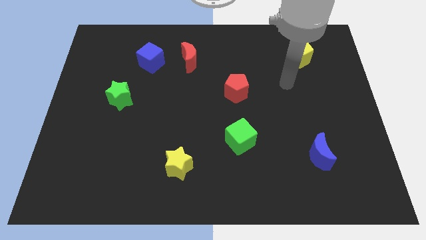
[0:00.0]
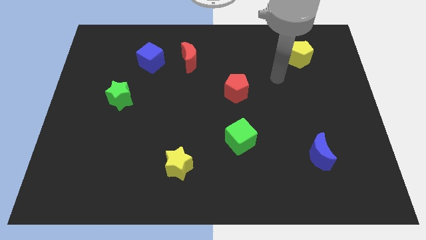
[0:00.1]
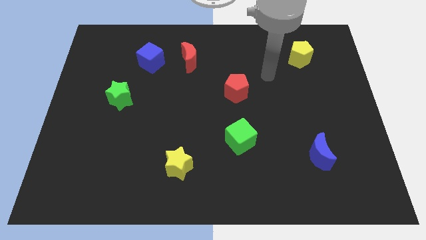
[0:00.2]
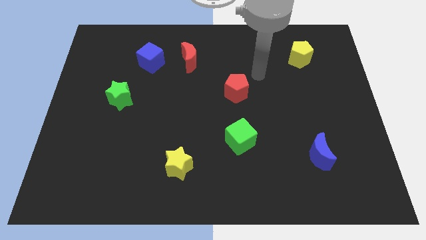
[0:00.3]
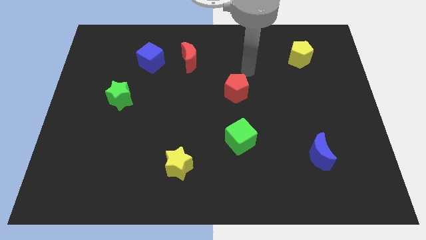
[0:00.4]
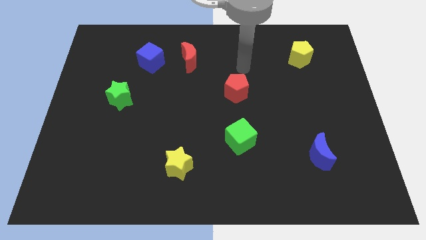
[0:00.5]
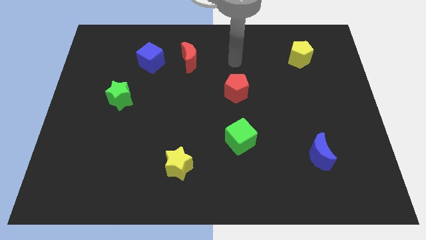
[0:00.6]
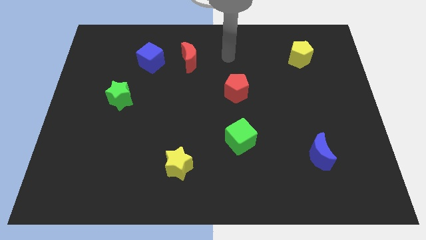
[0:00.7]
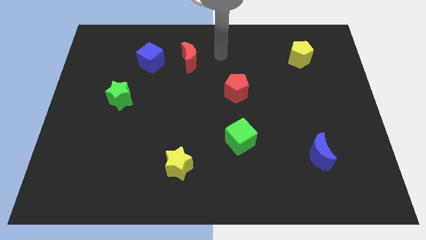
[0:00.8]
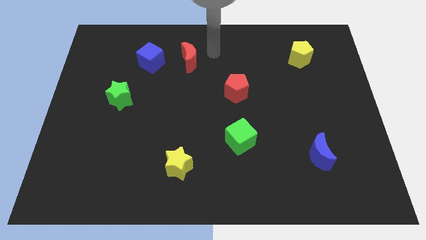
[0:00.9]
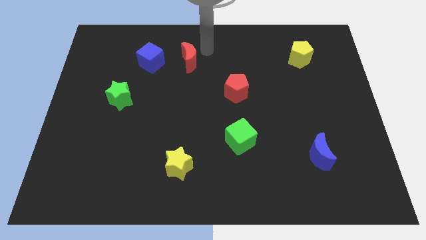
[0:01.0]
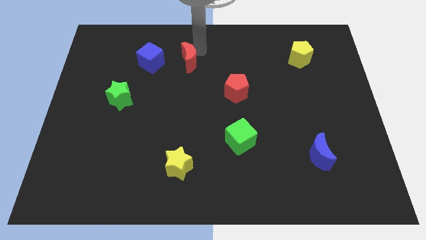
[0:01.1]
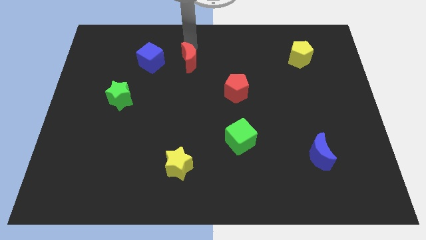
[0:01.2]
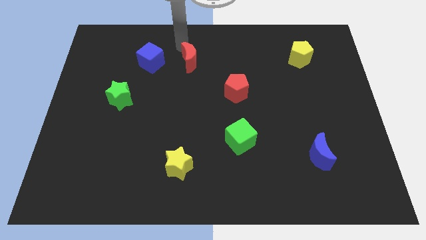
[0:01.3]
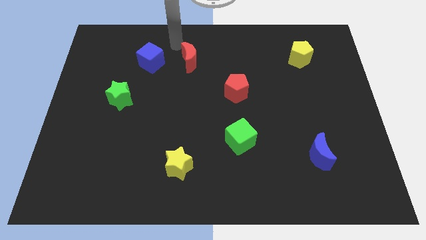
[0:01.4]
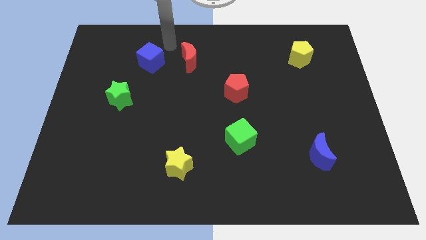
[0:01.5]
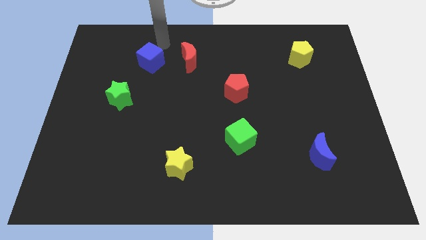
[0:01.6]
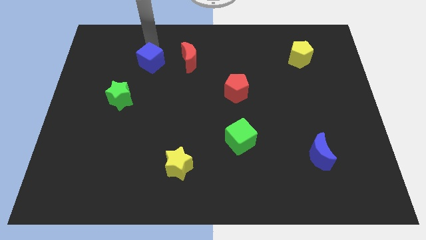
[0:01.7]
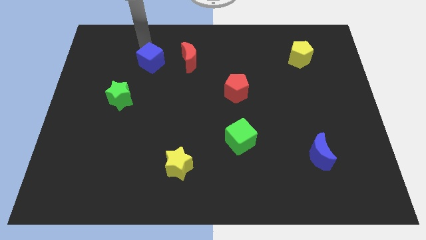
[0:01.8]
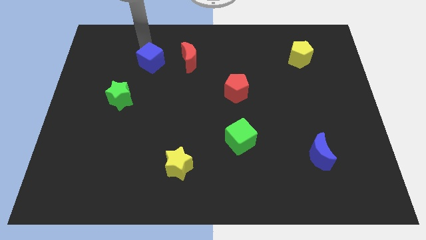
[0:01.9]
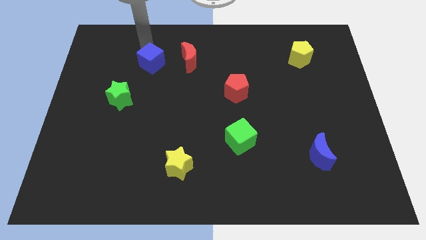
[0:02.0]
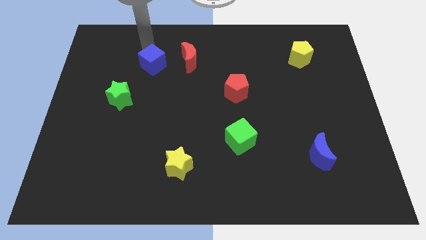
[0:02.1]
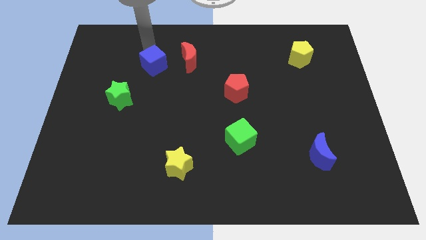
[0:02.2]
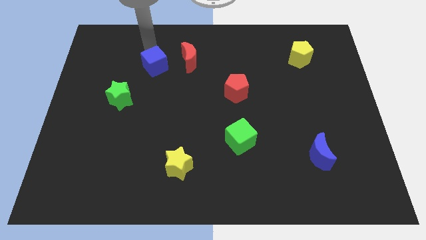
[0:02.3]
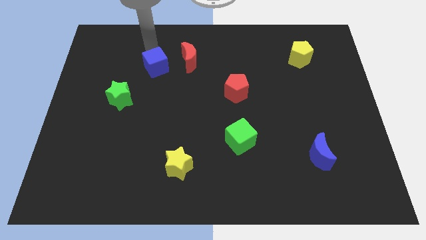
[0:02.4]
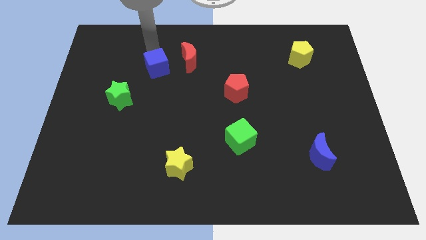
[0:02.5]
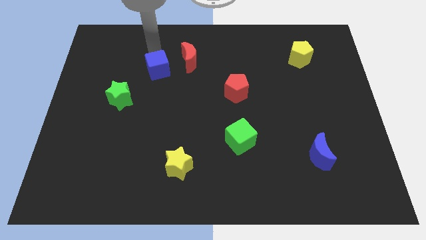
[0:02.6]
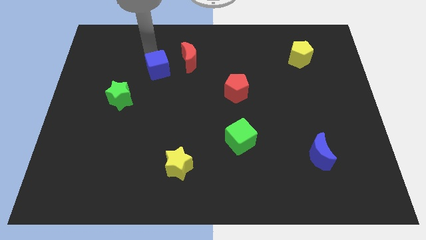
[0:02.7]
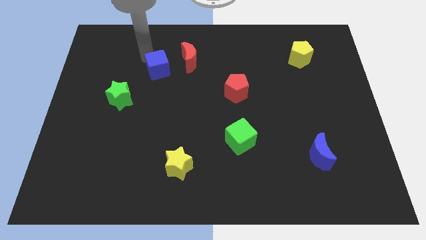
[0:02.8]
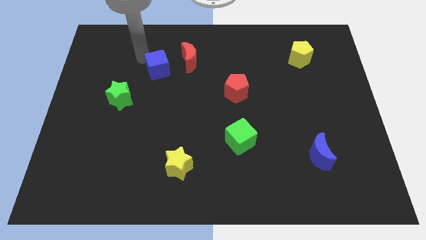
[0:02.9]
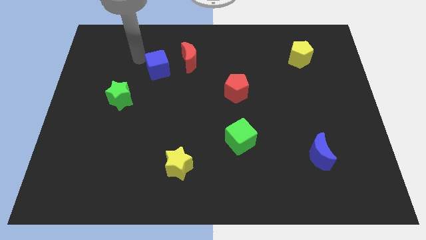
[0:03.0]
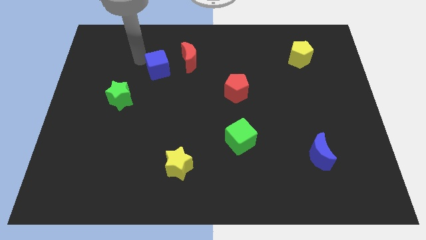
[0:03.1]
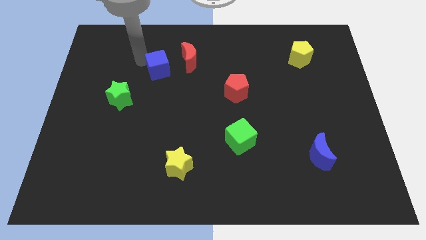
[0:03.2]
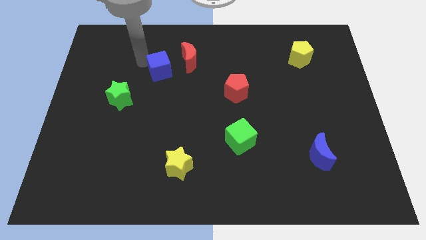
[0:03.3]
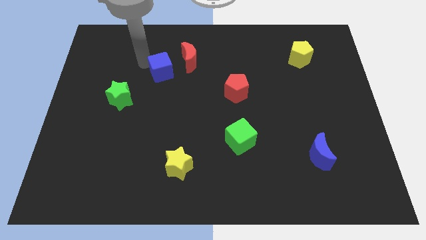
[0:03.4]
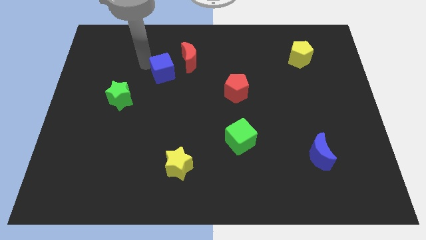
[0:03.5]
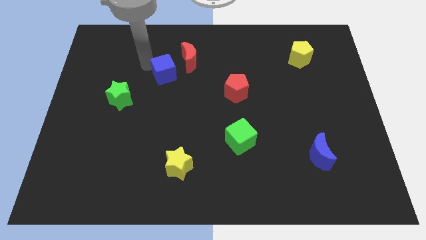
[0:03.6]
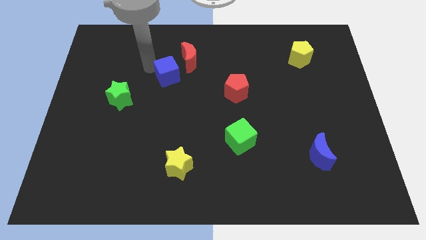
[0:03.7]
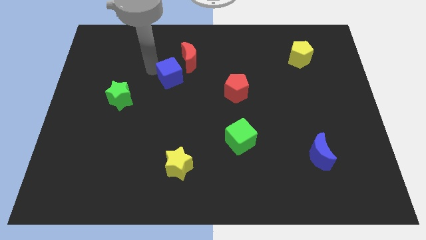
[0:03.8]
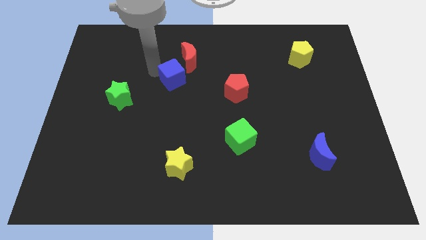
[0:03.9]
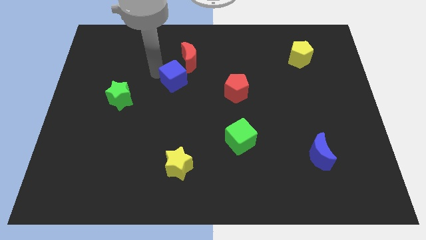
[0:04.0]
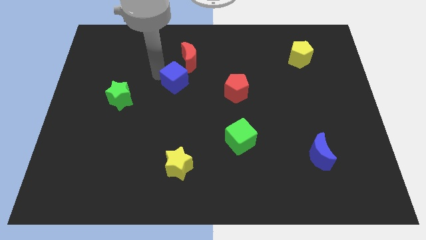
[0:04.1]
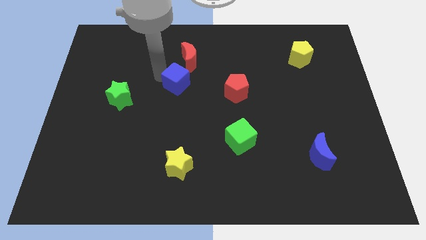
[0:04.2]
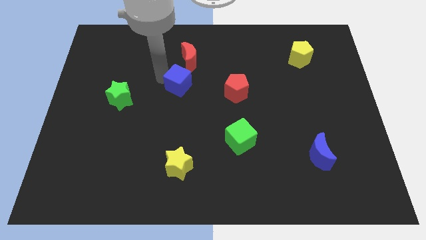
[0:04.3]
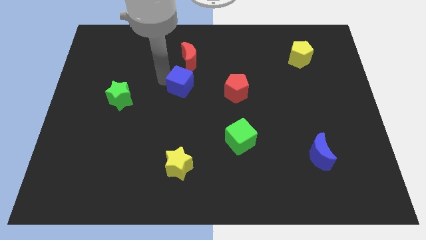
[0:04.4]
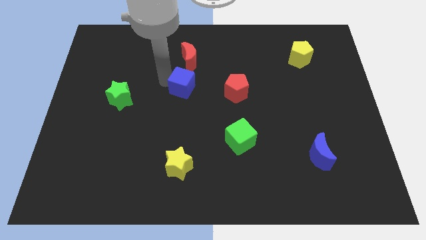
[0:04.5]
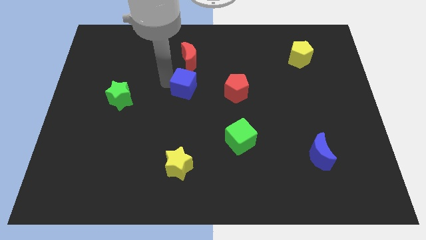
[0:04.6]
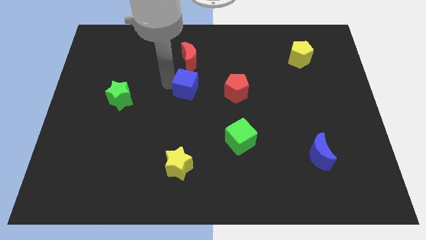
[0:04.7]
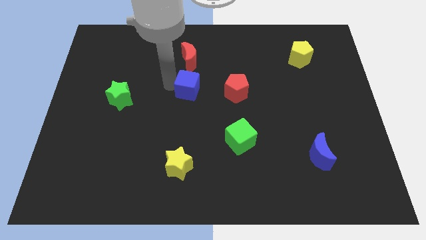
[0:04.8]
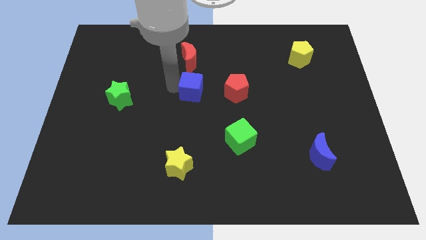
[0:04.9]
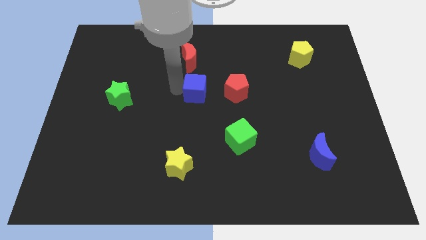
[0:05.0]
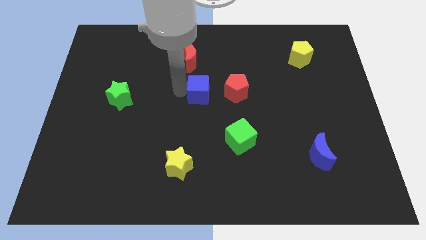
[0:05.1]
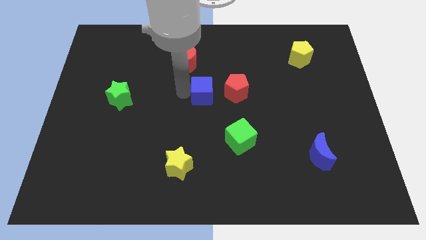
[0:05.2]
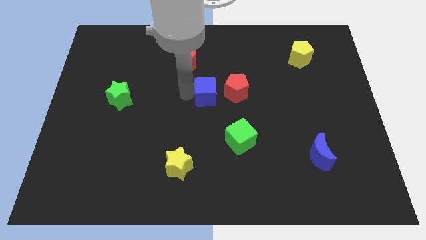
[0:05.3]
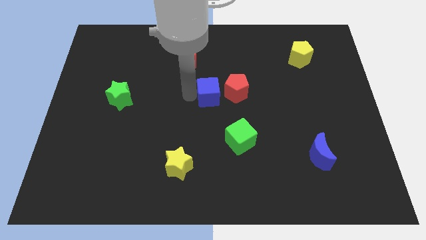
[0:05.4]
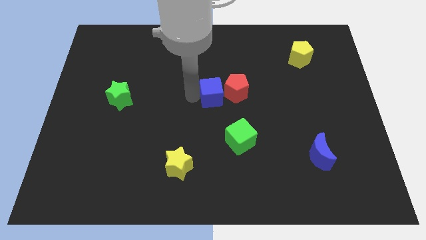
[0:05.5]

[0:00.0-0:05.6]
move the blue cube close to the red pentagon

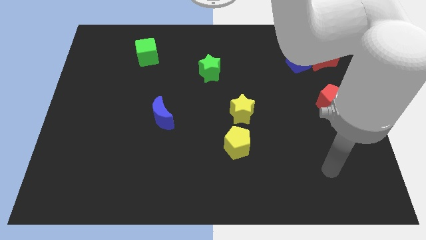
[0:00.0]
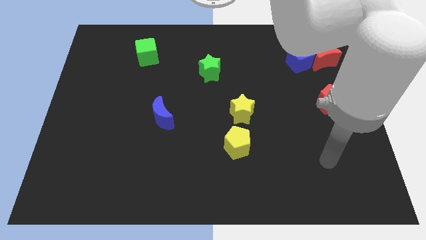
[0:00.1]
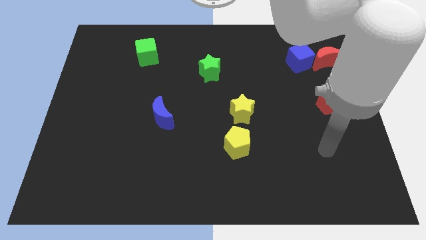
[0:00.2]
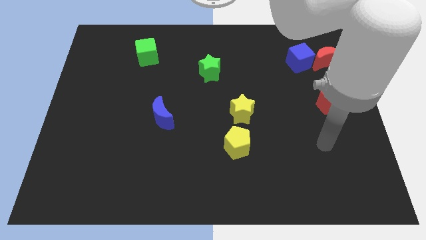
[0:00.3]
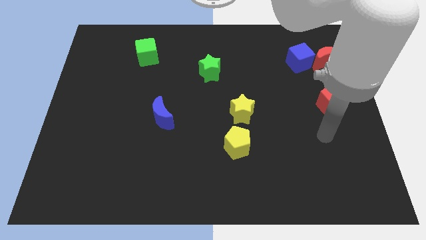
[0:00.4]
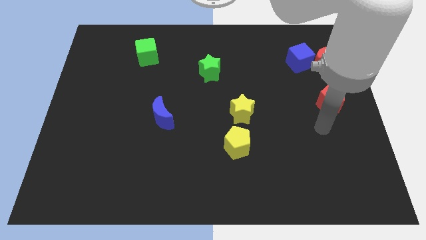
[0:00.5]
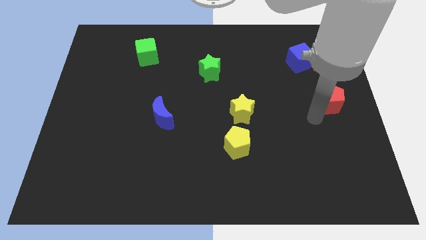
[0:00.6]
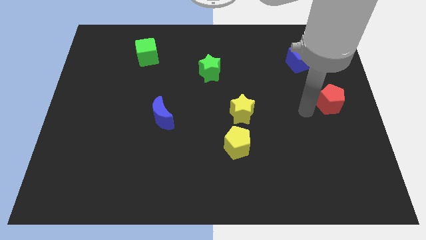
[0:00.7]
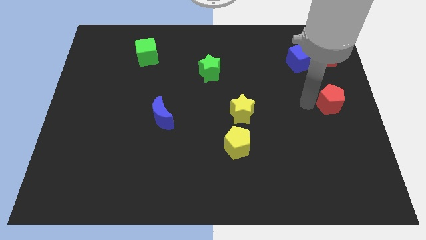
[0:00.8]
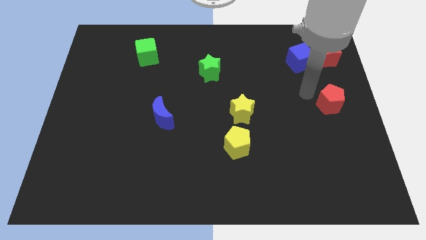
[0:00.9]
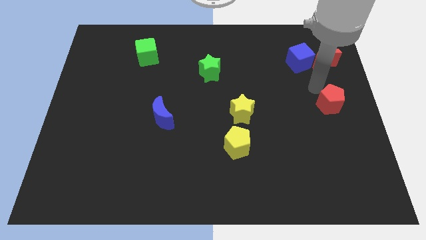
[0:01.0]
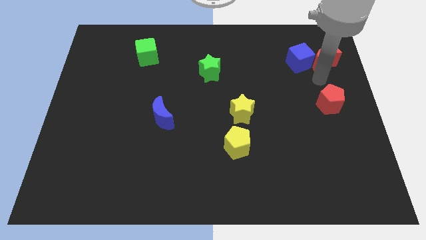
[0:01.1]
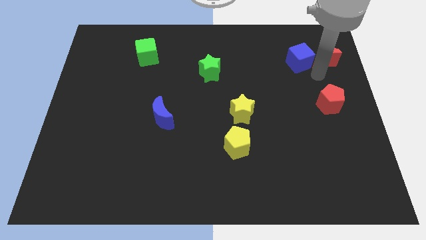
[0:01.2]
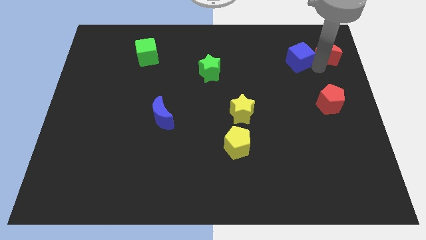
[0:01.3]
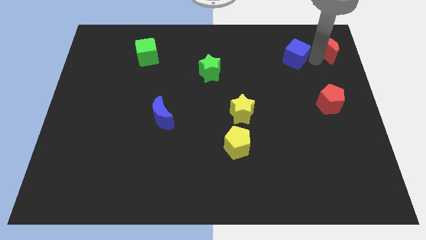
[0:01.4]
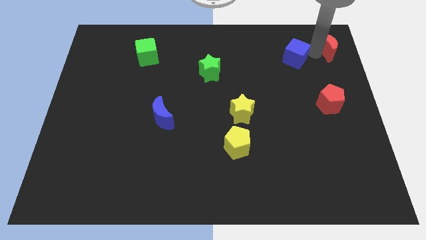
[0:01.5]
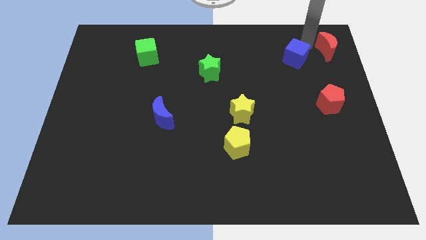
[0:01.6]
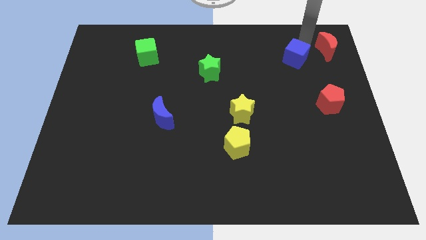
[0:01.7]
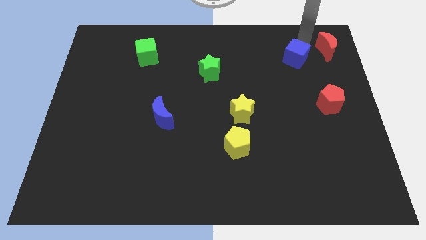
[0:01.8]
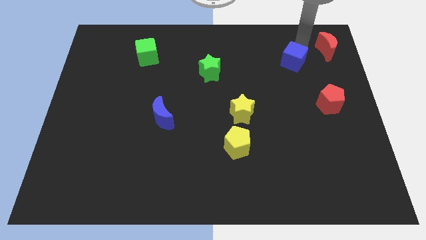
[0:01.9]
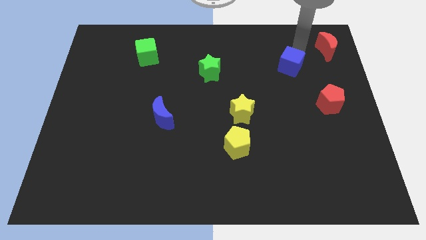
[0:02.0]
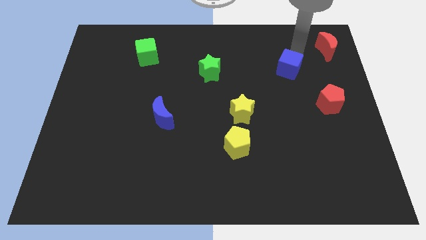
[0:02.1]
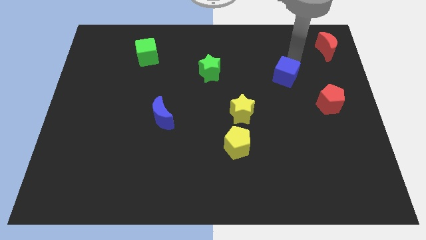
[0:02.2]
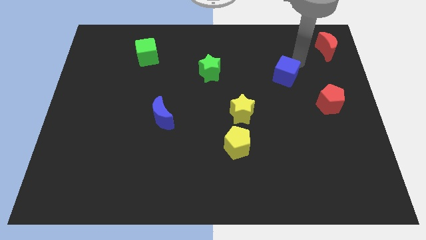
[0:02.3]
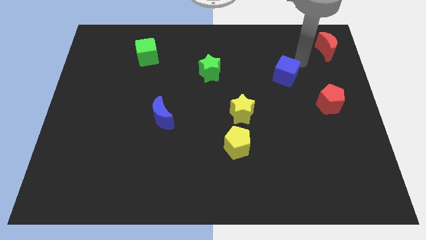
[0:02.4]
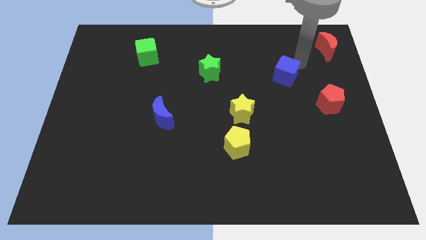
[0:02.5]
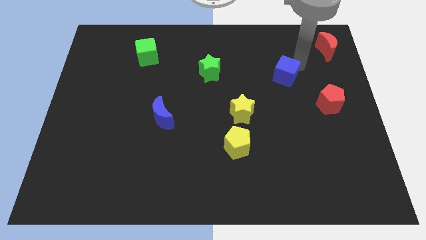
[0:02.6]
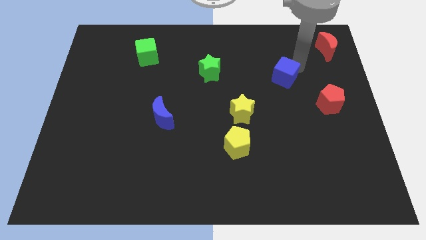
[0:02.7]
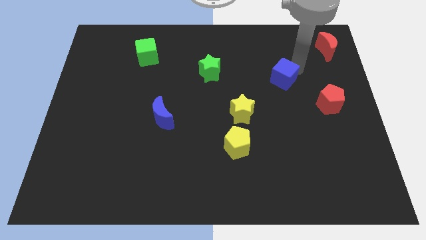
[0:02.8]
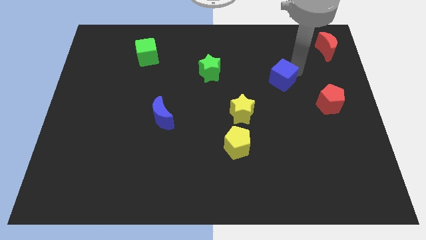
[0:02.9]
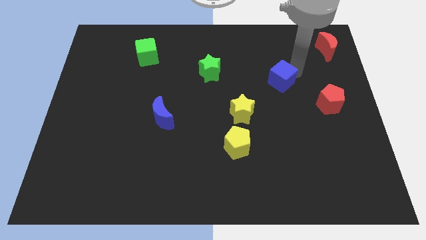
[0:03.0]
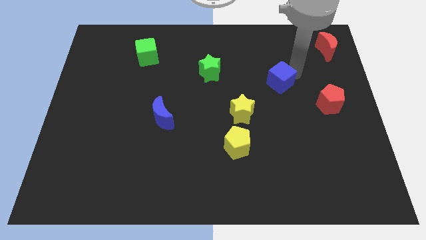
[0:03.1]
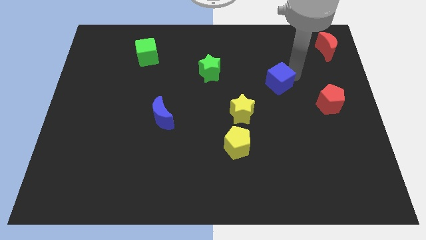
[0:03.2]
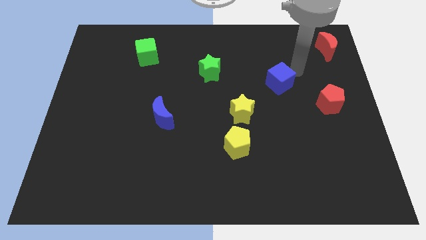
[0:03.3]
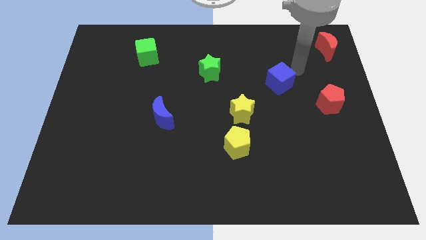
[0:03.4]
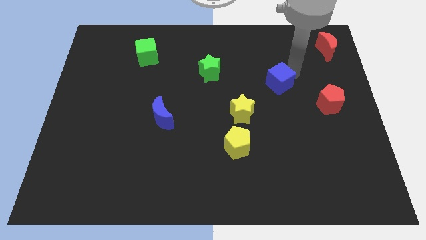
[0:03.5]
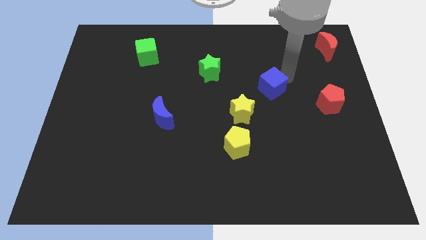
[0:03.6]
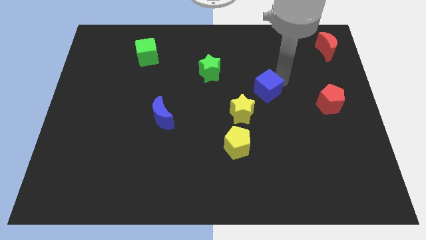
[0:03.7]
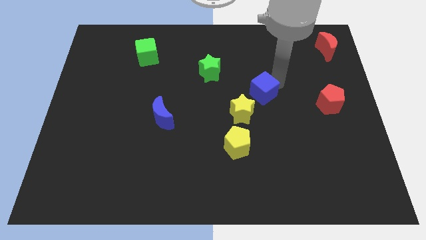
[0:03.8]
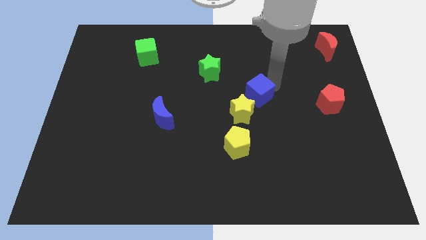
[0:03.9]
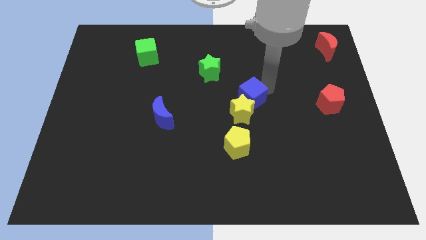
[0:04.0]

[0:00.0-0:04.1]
slide the blue cube next to the yellow star
